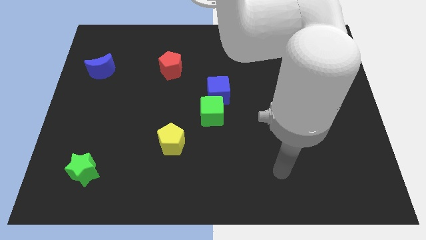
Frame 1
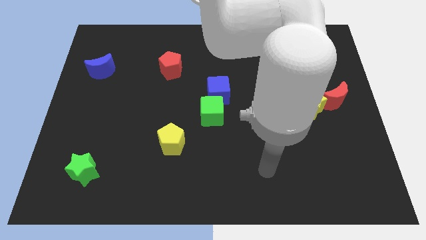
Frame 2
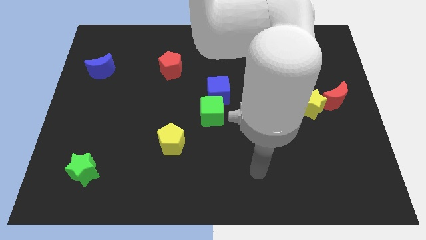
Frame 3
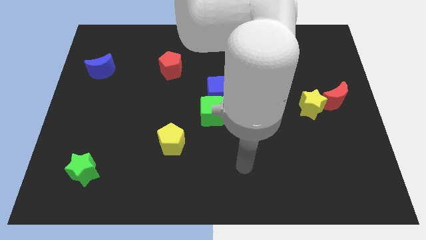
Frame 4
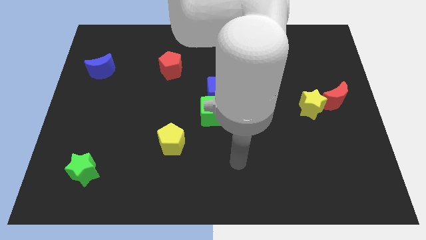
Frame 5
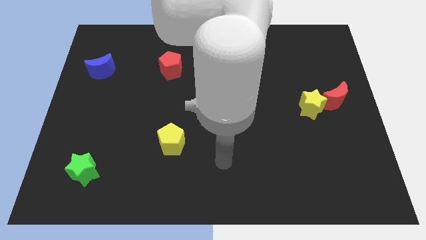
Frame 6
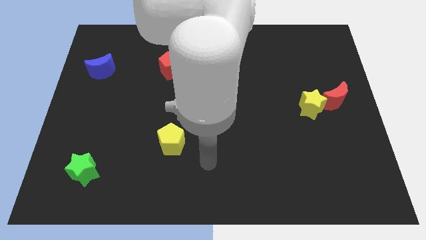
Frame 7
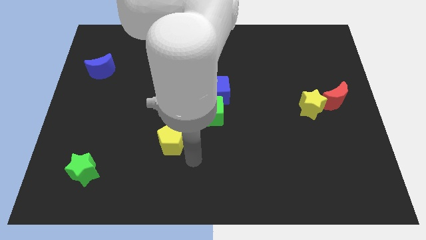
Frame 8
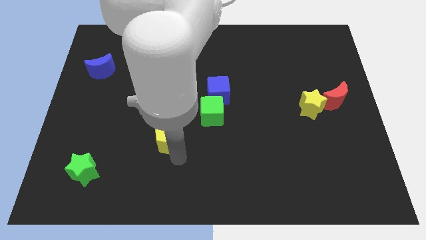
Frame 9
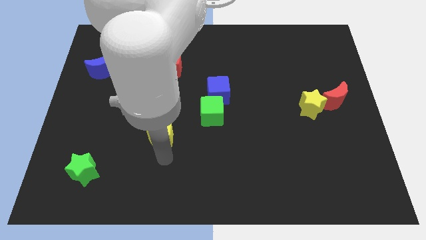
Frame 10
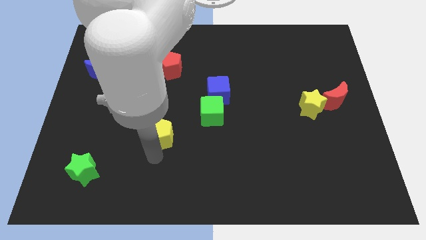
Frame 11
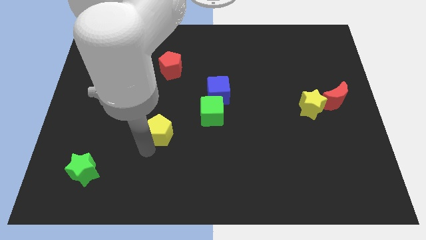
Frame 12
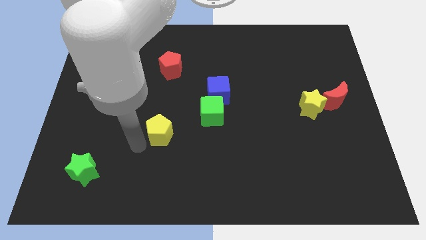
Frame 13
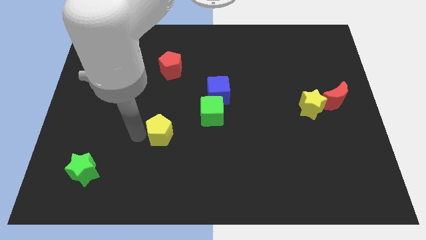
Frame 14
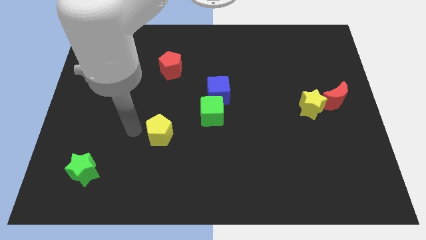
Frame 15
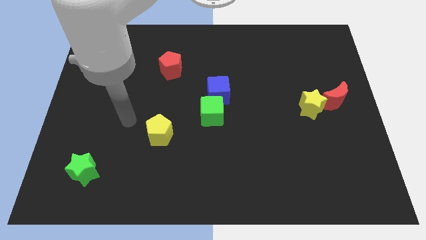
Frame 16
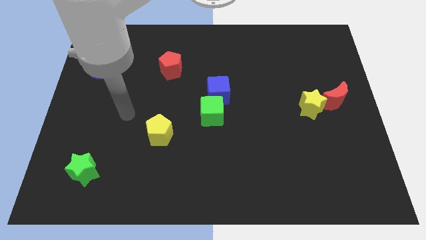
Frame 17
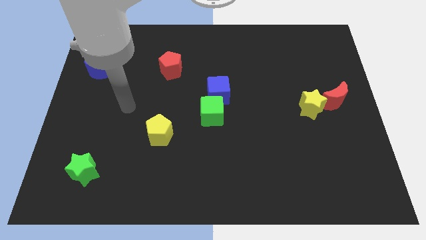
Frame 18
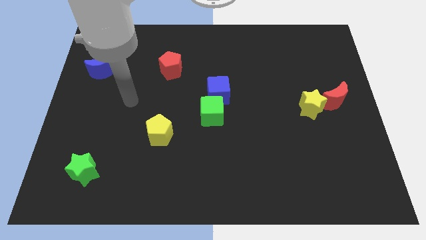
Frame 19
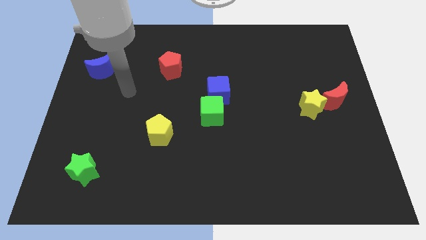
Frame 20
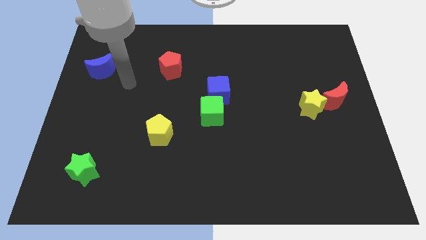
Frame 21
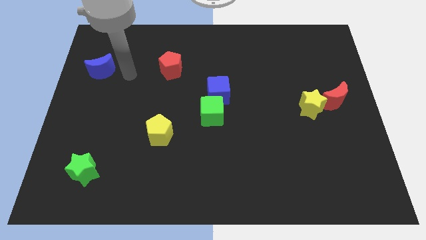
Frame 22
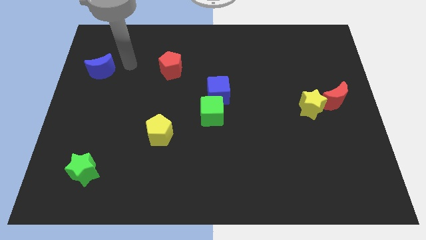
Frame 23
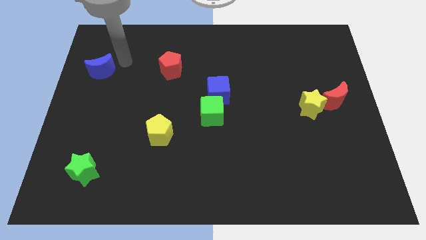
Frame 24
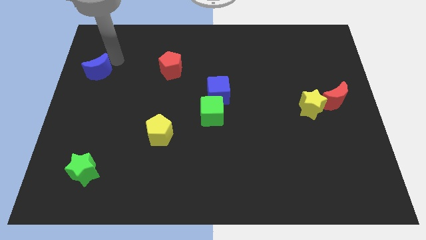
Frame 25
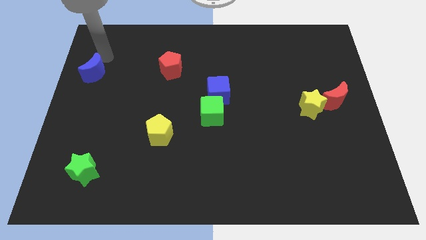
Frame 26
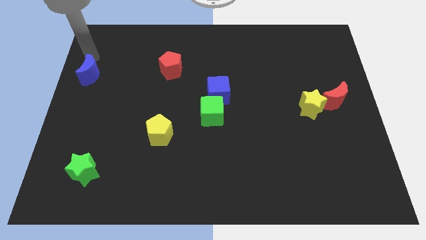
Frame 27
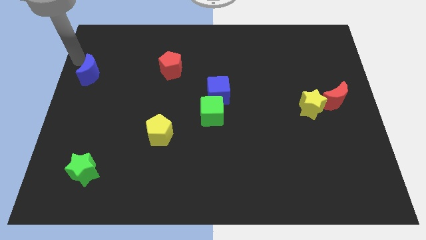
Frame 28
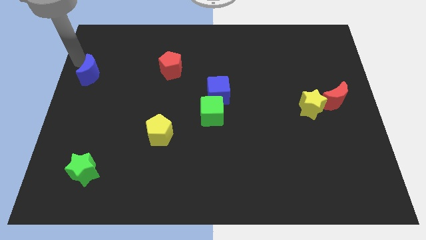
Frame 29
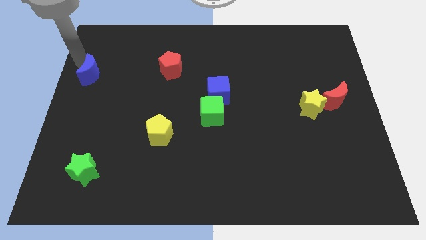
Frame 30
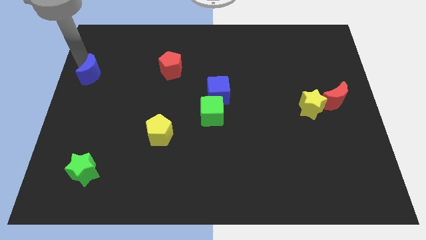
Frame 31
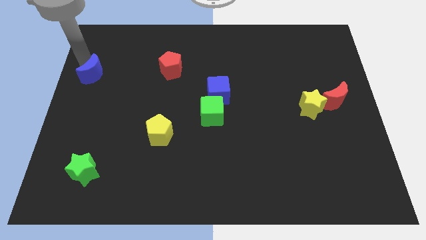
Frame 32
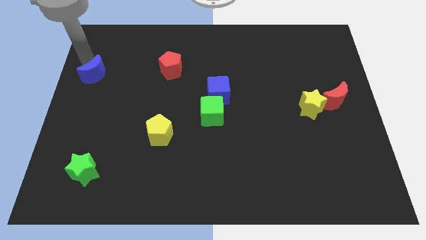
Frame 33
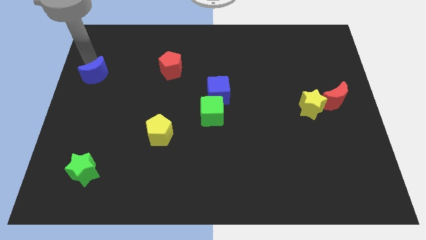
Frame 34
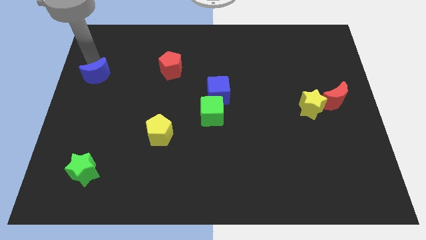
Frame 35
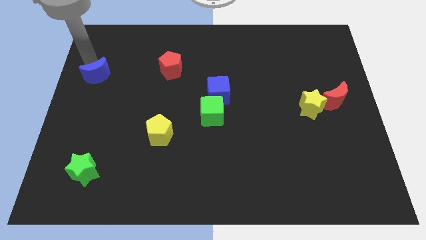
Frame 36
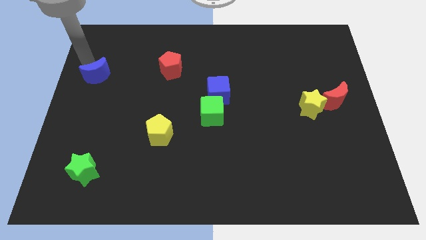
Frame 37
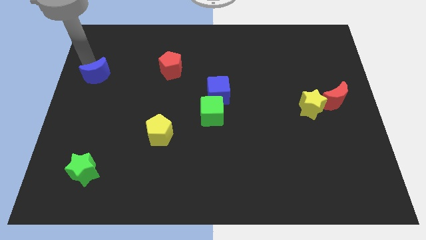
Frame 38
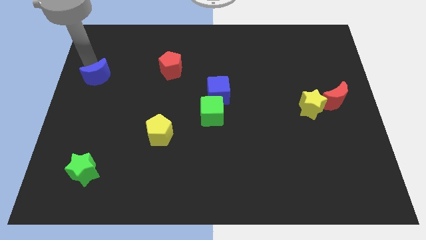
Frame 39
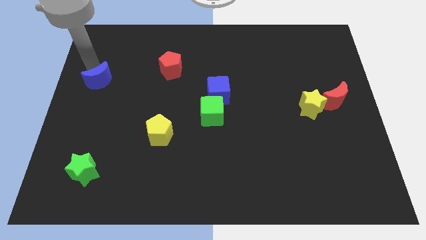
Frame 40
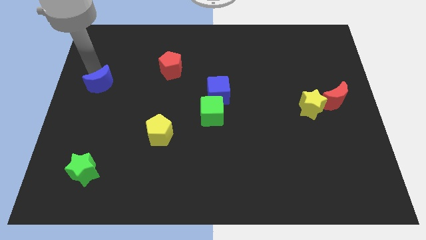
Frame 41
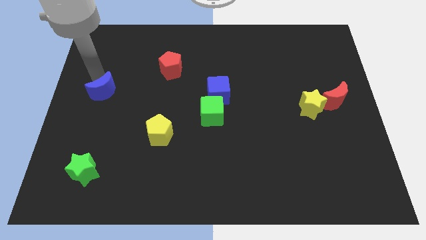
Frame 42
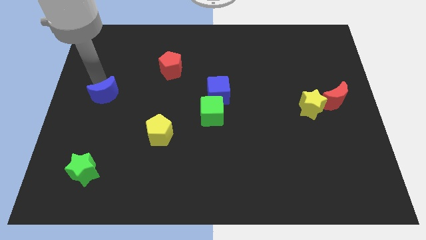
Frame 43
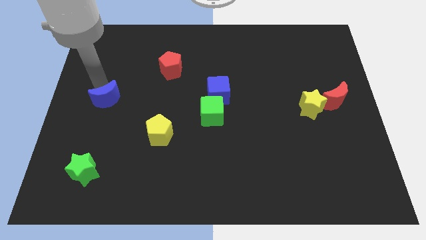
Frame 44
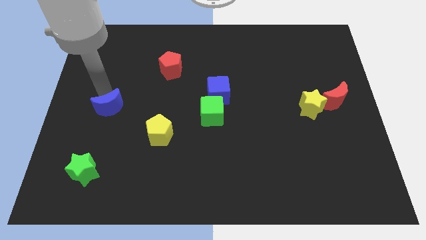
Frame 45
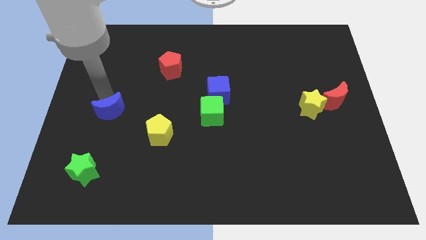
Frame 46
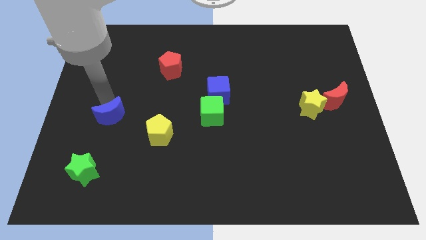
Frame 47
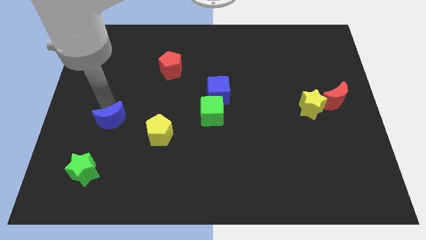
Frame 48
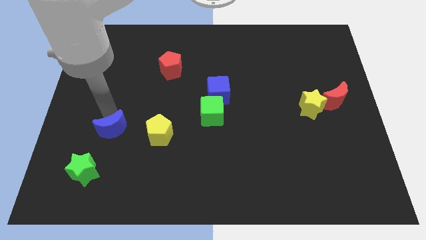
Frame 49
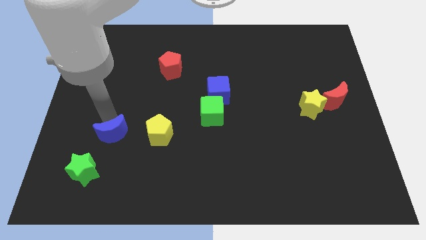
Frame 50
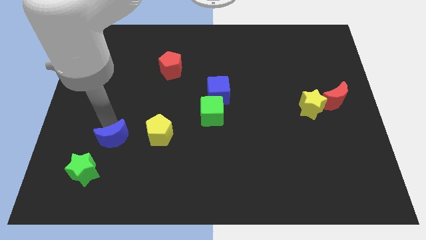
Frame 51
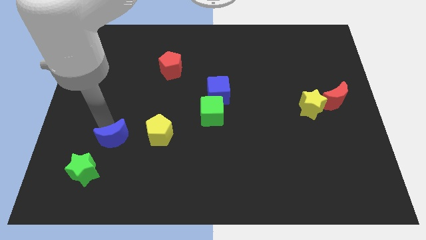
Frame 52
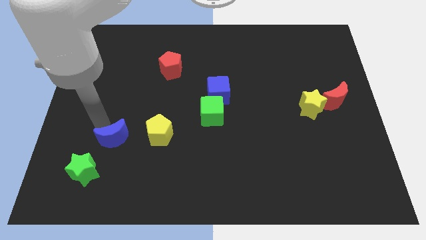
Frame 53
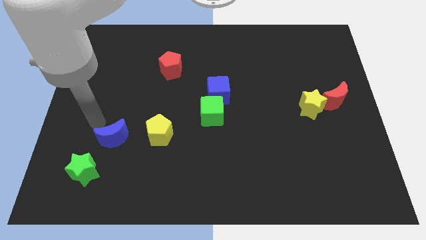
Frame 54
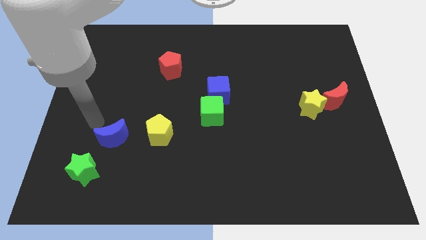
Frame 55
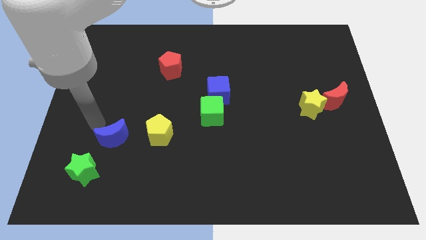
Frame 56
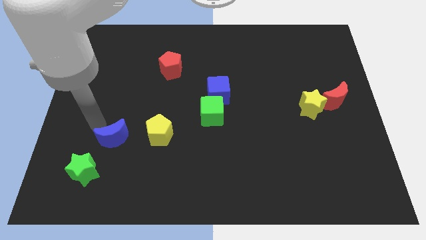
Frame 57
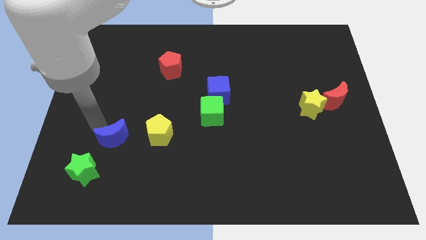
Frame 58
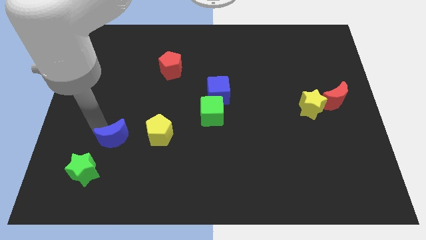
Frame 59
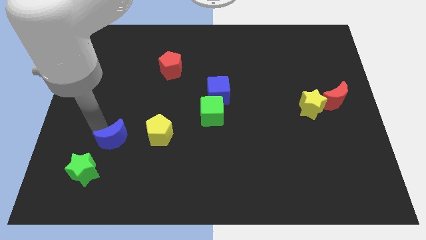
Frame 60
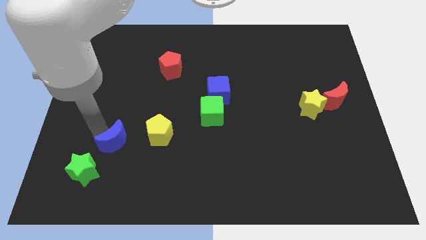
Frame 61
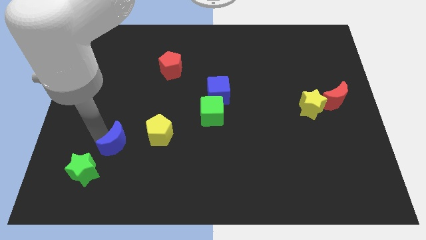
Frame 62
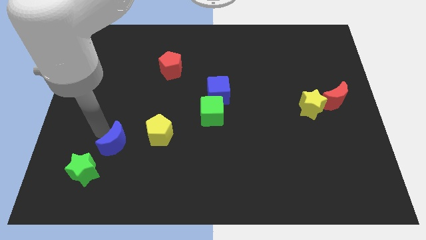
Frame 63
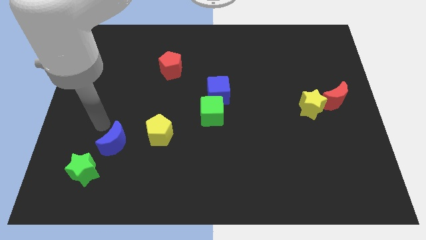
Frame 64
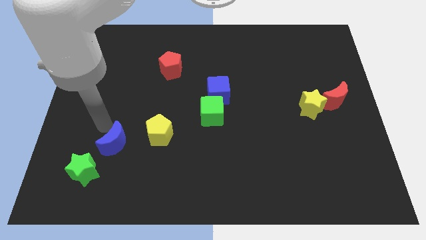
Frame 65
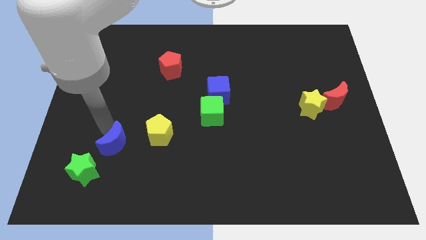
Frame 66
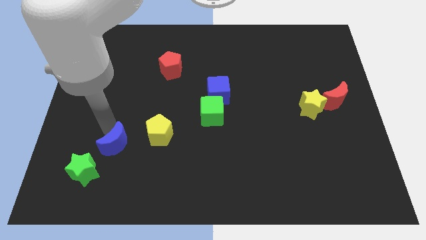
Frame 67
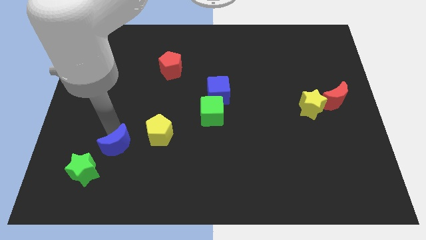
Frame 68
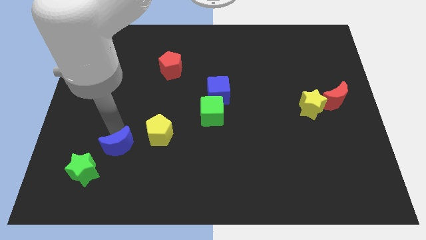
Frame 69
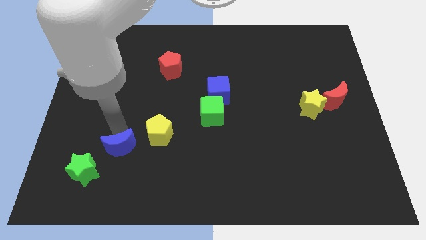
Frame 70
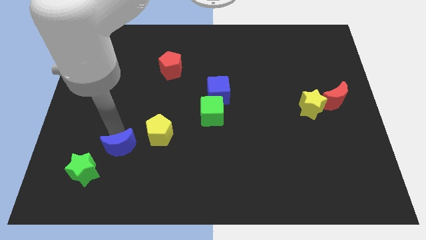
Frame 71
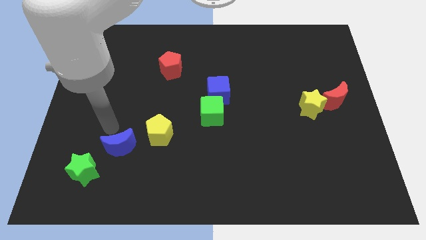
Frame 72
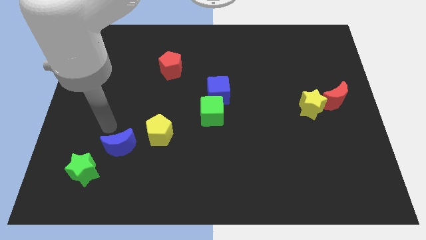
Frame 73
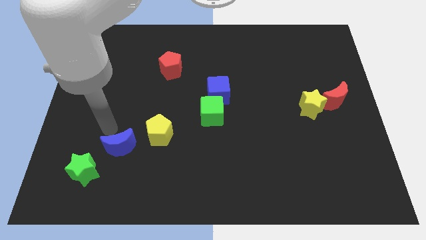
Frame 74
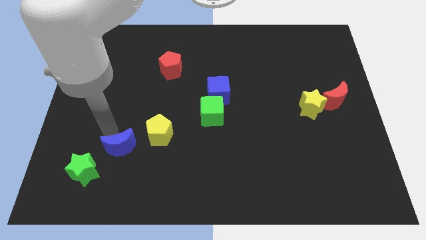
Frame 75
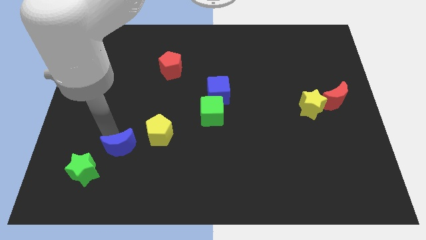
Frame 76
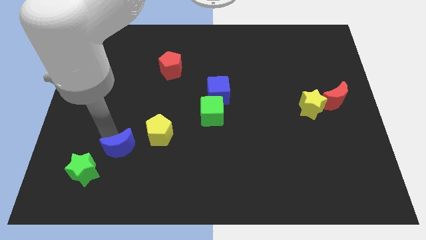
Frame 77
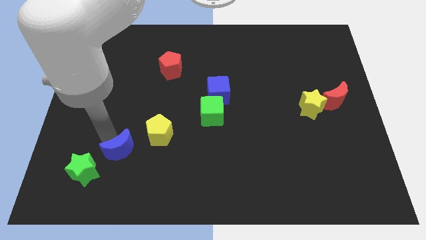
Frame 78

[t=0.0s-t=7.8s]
move the blue moon to the right of the green star

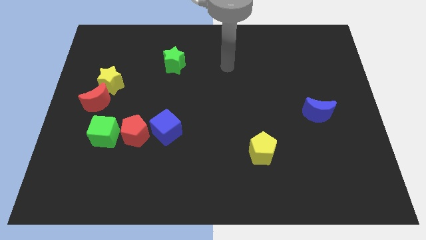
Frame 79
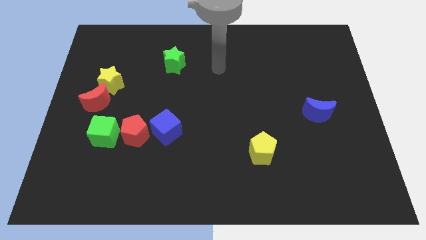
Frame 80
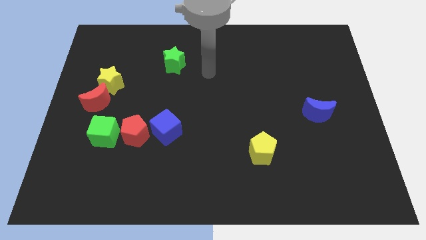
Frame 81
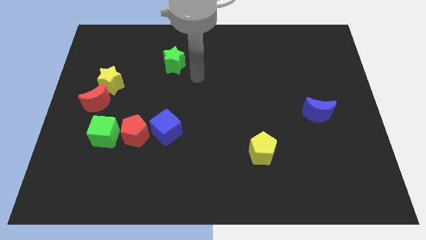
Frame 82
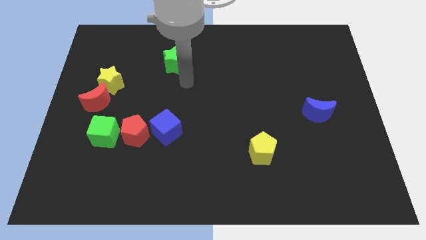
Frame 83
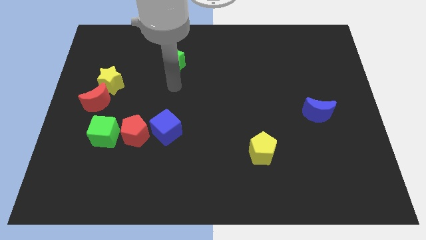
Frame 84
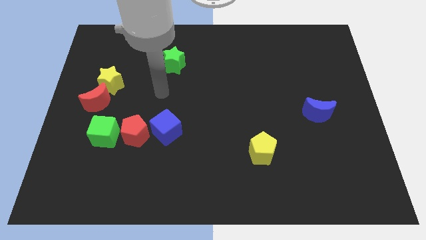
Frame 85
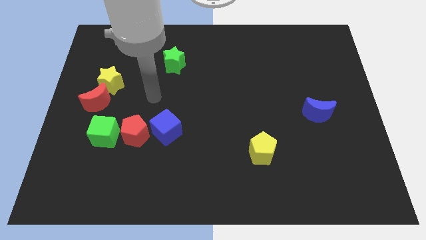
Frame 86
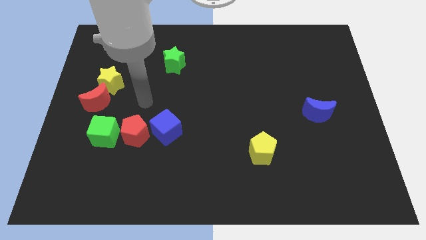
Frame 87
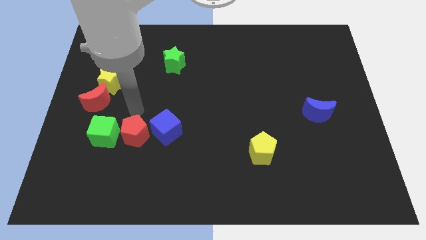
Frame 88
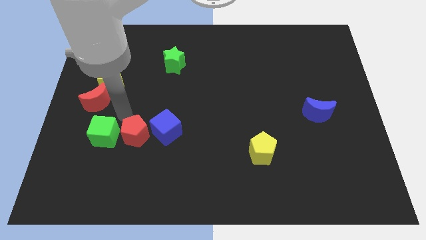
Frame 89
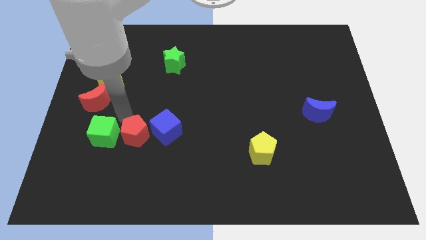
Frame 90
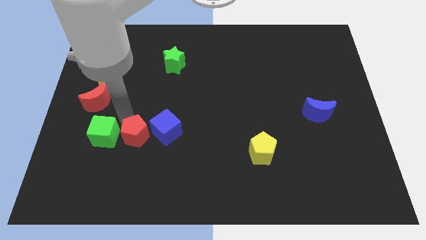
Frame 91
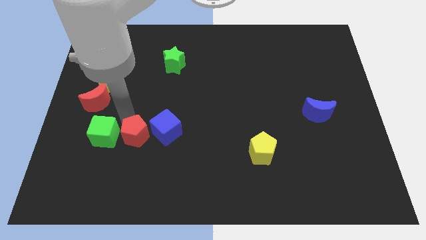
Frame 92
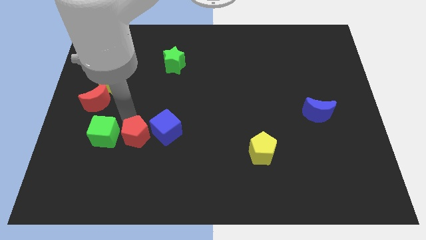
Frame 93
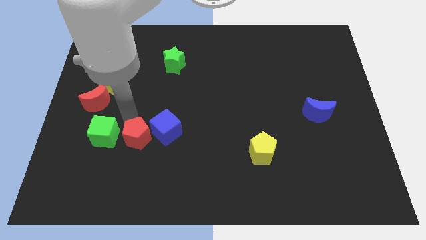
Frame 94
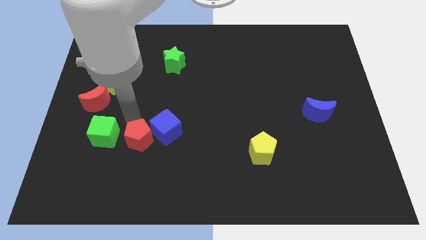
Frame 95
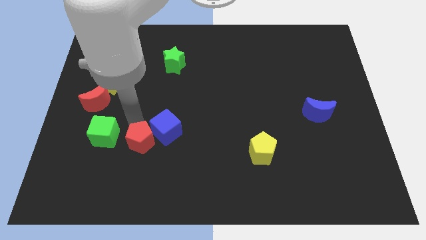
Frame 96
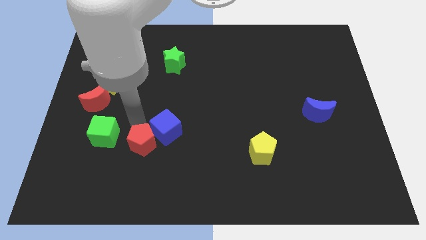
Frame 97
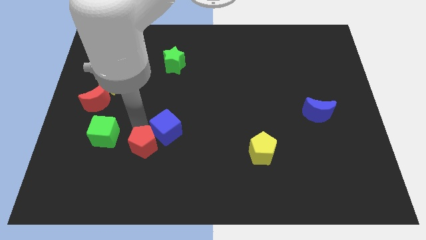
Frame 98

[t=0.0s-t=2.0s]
put the red pentagon to the bottom side of the blue cube
